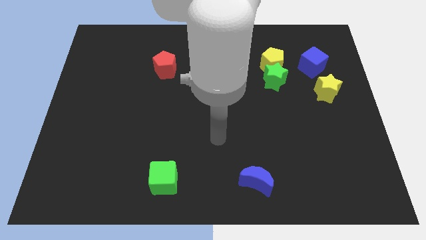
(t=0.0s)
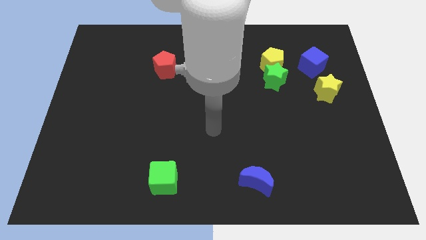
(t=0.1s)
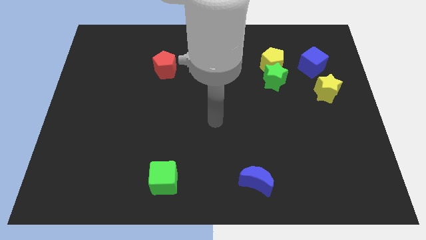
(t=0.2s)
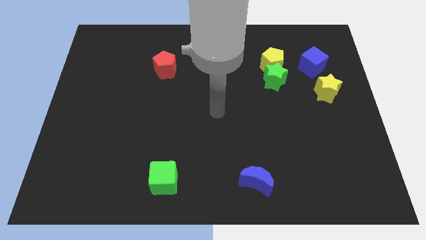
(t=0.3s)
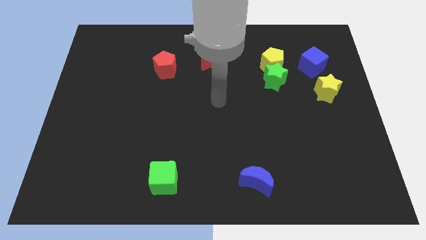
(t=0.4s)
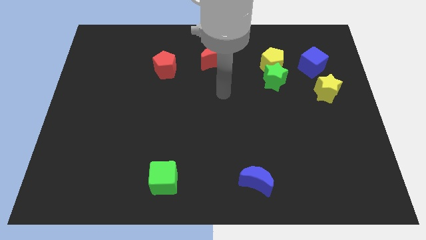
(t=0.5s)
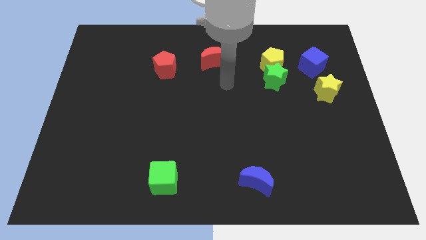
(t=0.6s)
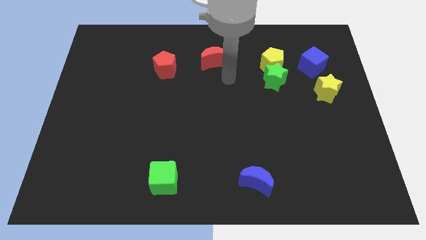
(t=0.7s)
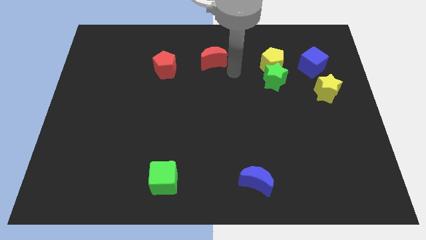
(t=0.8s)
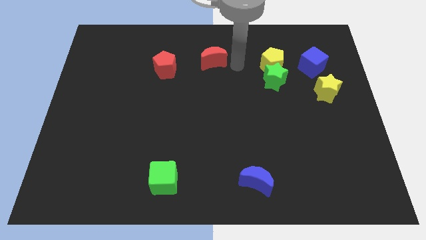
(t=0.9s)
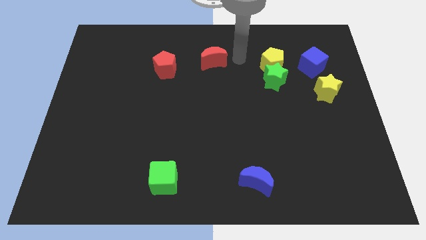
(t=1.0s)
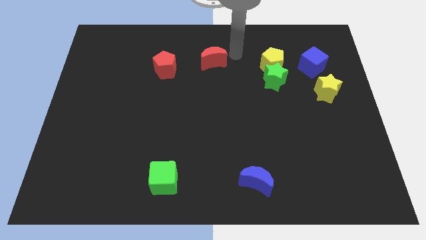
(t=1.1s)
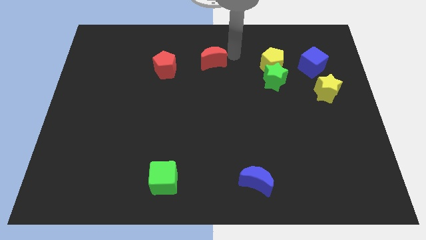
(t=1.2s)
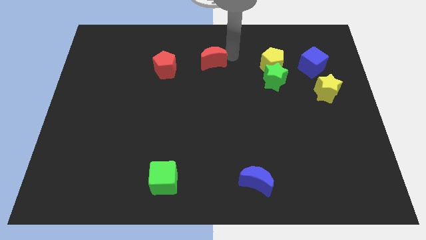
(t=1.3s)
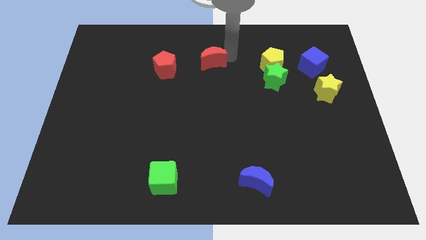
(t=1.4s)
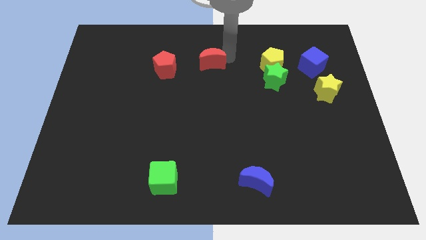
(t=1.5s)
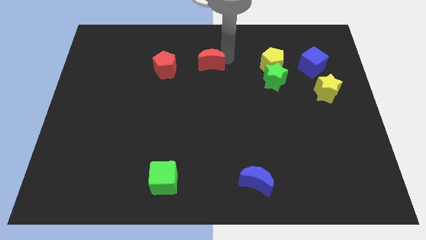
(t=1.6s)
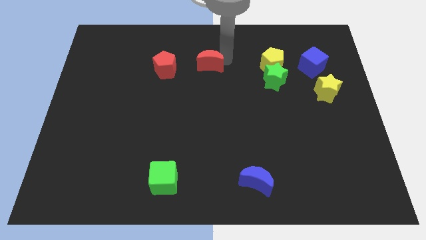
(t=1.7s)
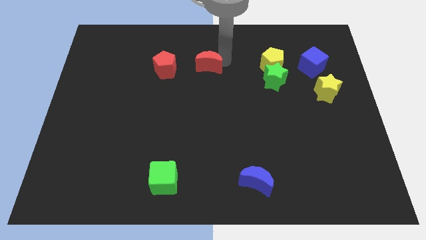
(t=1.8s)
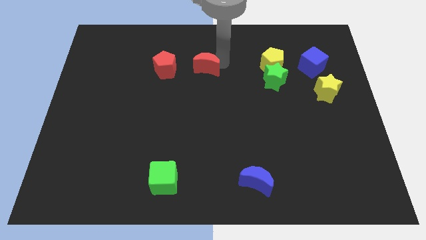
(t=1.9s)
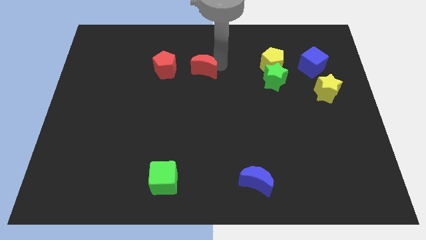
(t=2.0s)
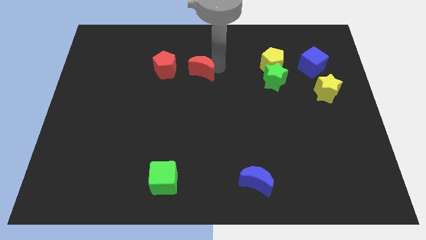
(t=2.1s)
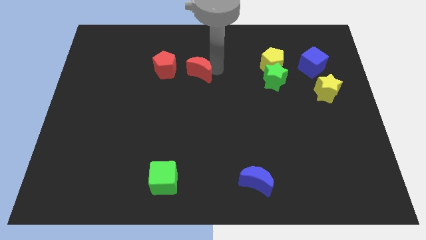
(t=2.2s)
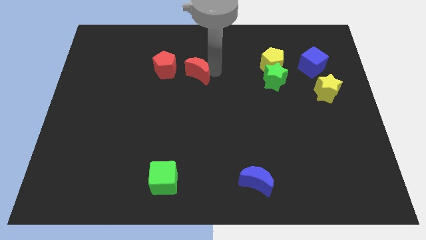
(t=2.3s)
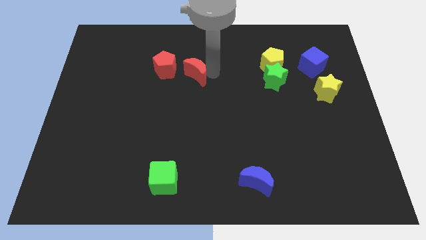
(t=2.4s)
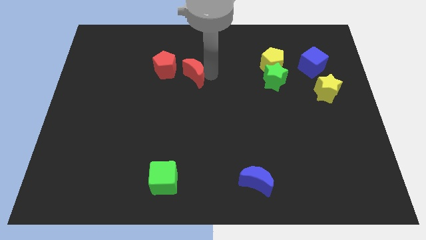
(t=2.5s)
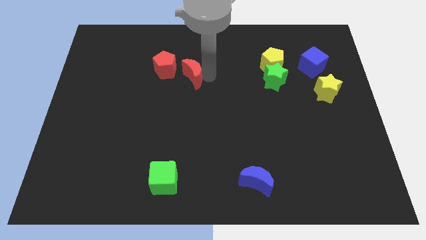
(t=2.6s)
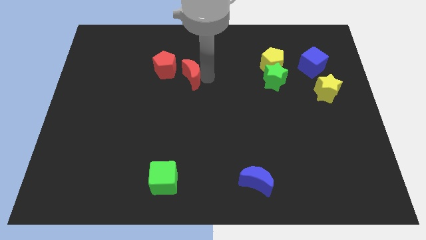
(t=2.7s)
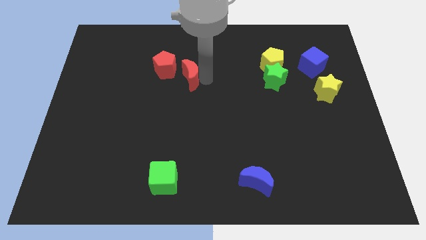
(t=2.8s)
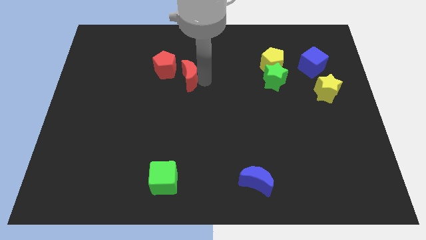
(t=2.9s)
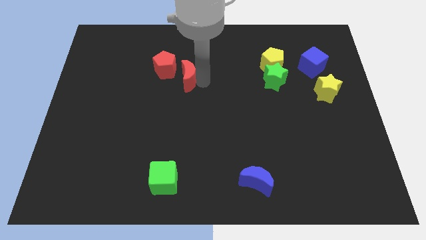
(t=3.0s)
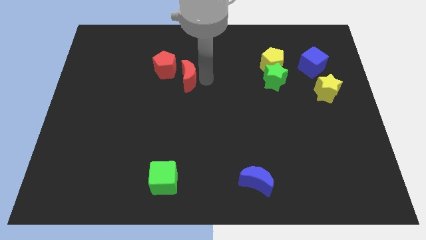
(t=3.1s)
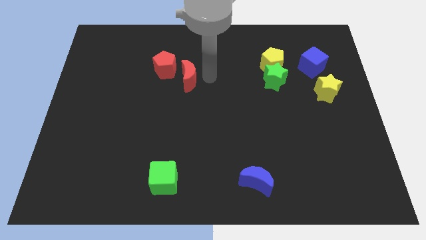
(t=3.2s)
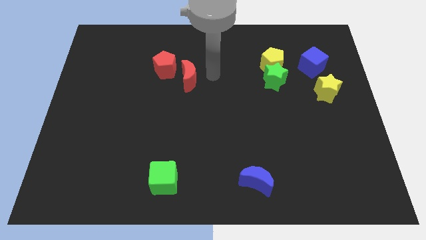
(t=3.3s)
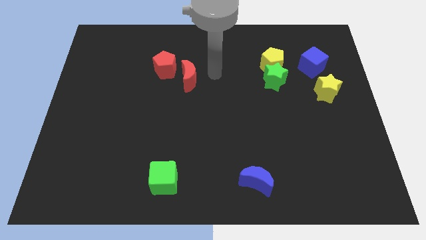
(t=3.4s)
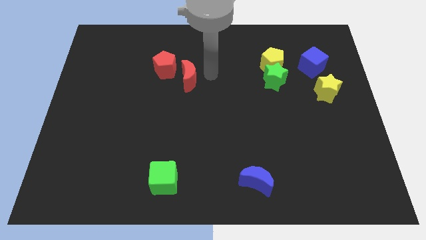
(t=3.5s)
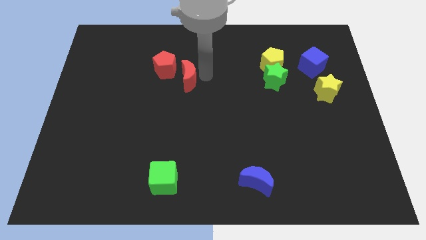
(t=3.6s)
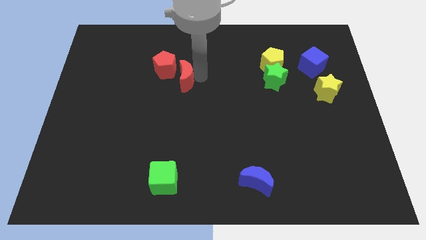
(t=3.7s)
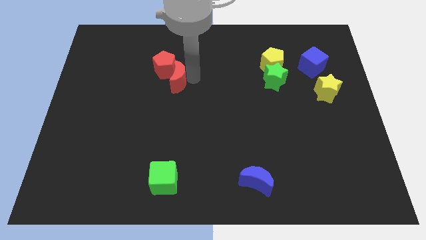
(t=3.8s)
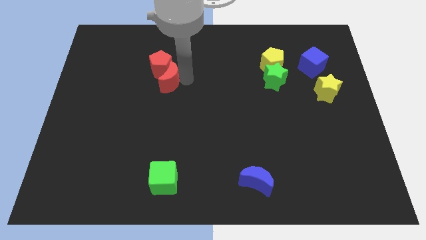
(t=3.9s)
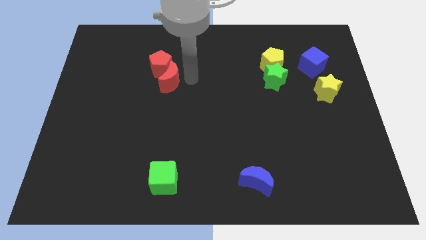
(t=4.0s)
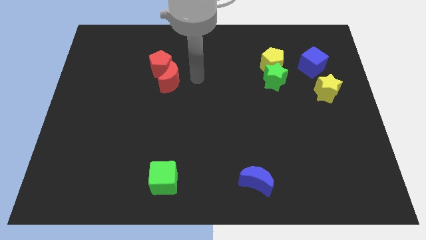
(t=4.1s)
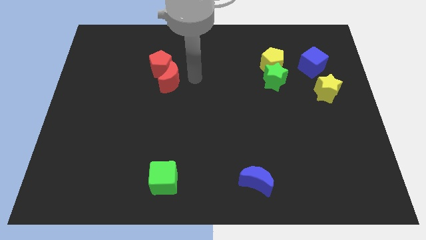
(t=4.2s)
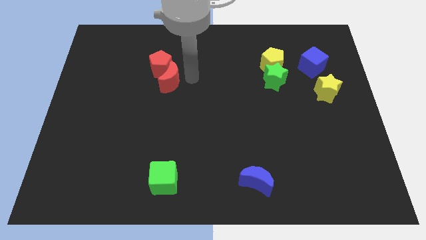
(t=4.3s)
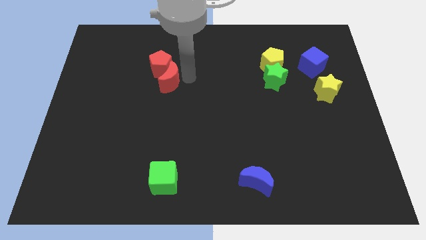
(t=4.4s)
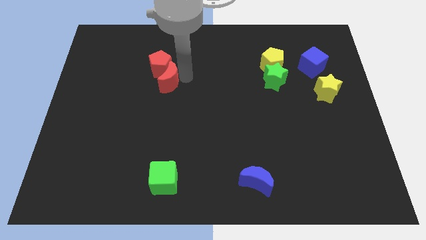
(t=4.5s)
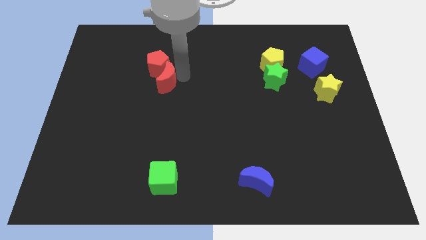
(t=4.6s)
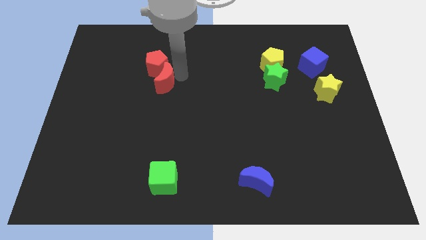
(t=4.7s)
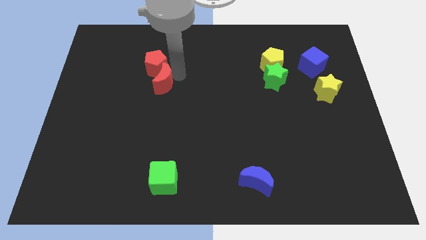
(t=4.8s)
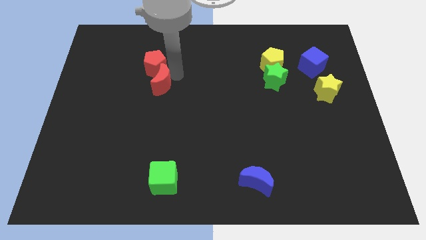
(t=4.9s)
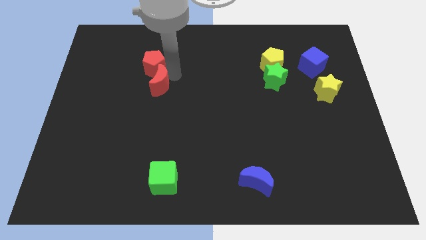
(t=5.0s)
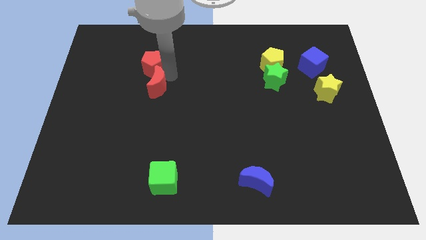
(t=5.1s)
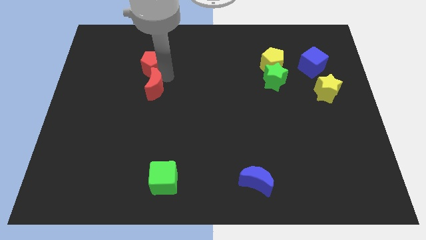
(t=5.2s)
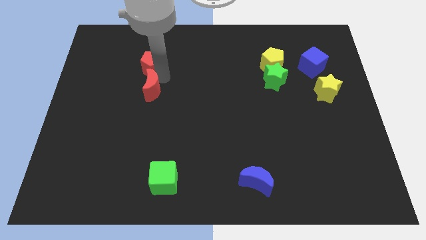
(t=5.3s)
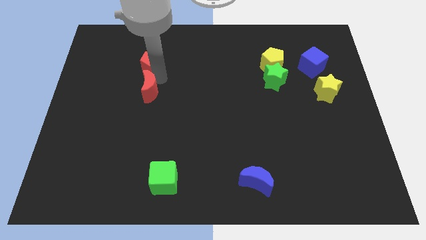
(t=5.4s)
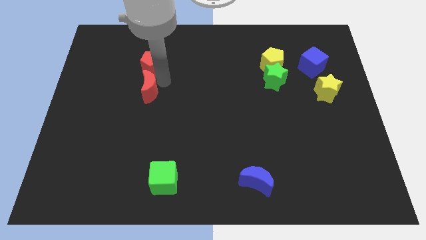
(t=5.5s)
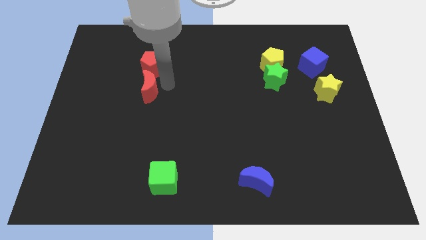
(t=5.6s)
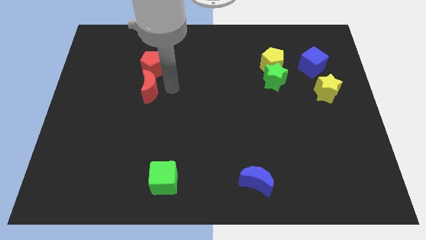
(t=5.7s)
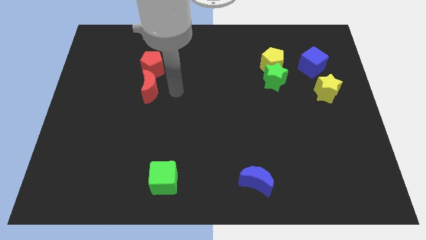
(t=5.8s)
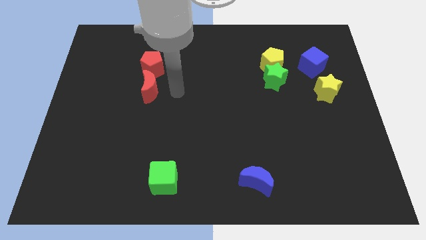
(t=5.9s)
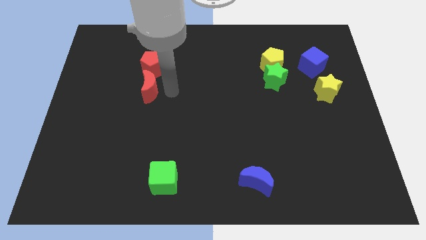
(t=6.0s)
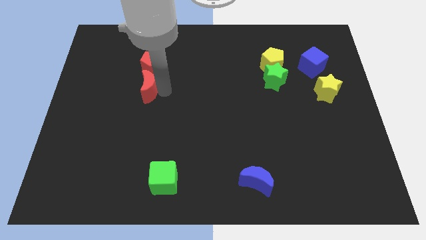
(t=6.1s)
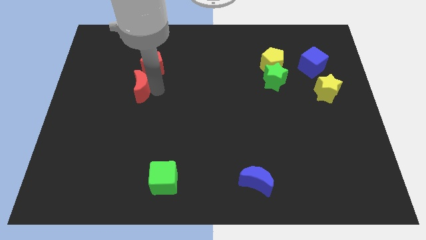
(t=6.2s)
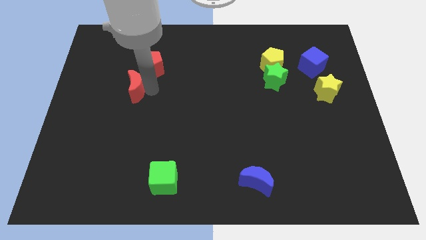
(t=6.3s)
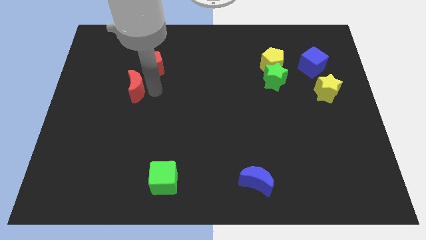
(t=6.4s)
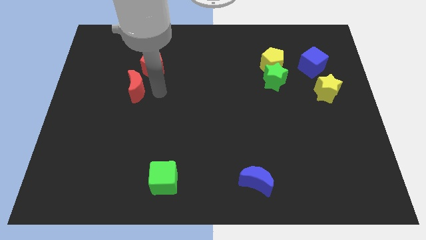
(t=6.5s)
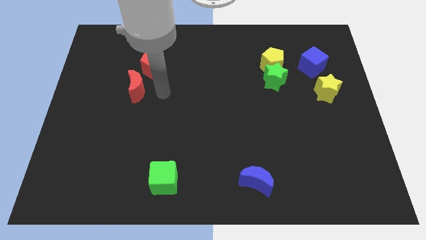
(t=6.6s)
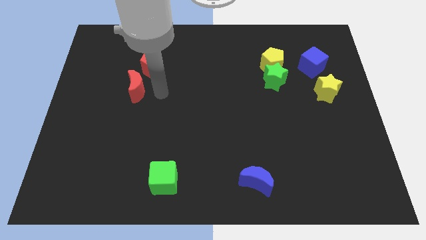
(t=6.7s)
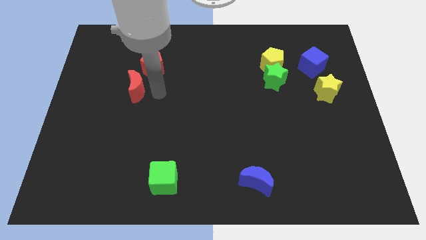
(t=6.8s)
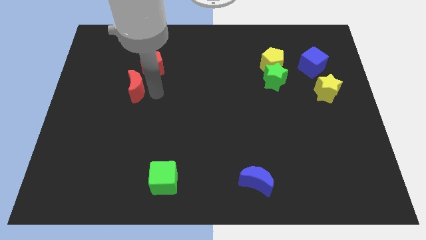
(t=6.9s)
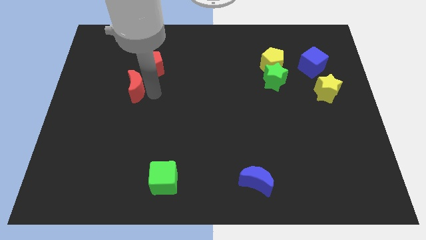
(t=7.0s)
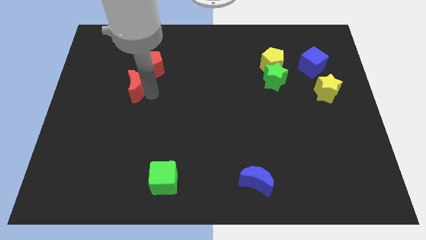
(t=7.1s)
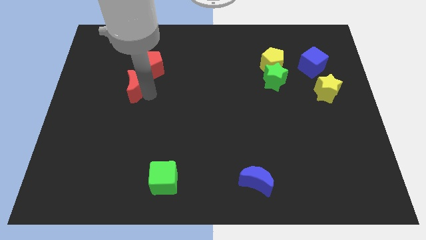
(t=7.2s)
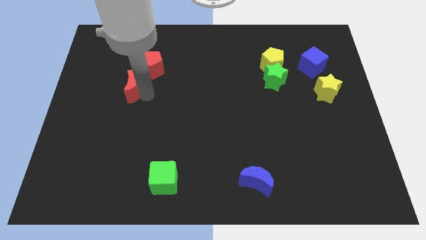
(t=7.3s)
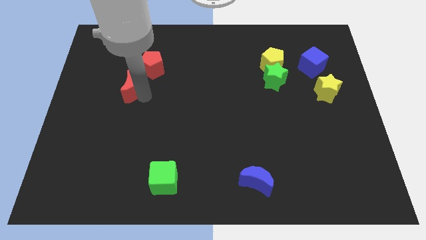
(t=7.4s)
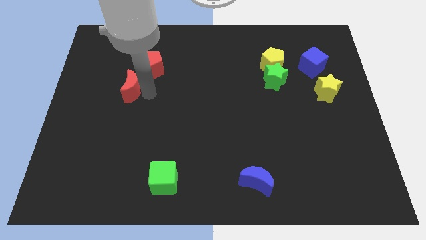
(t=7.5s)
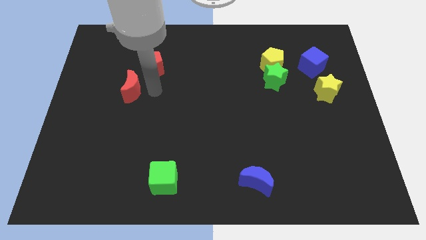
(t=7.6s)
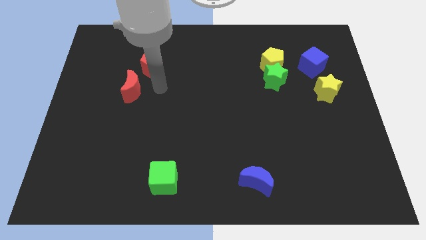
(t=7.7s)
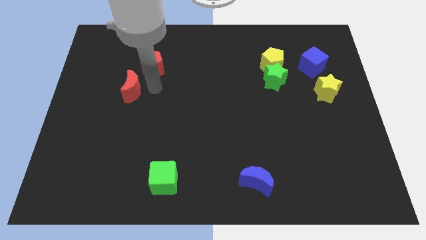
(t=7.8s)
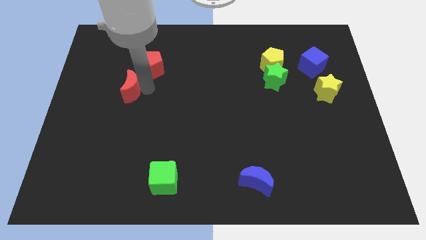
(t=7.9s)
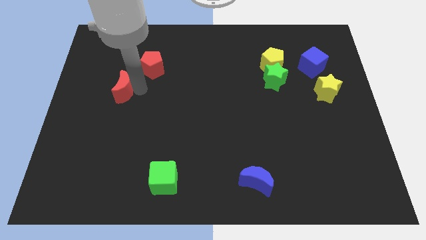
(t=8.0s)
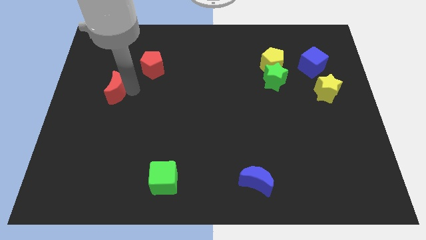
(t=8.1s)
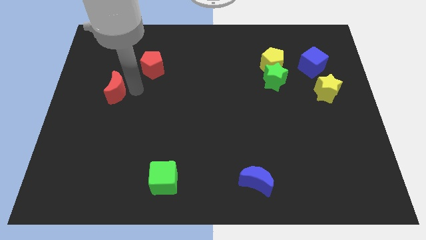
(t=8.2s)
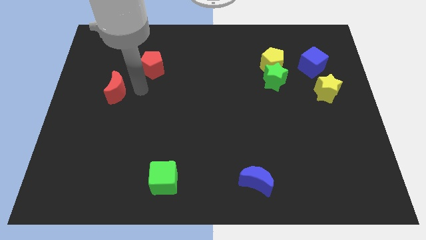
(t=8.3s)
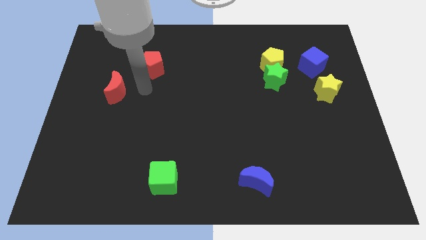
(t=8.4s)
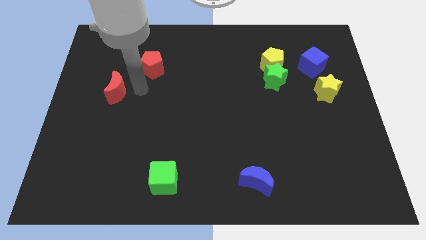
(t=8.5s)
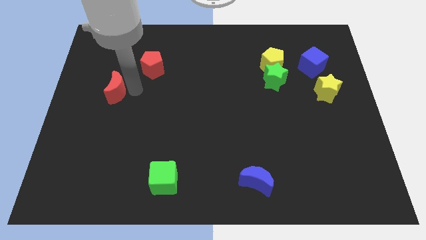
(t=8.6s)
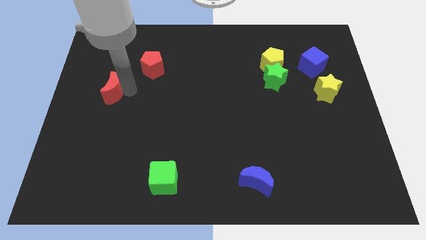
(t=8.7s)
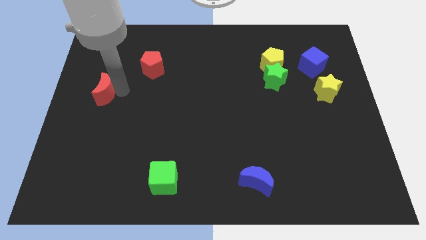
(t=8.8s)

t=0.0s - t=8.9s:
push the red moon to the left side of the board
